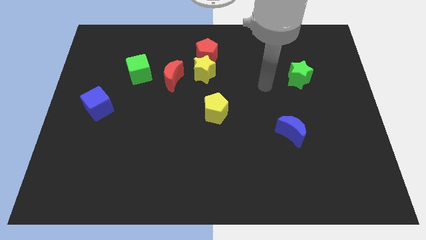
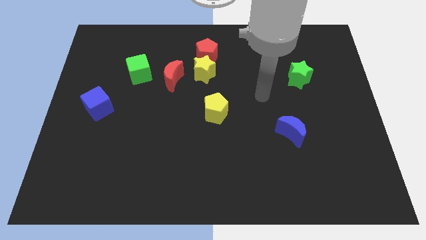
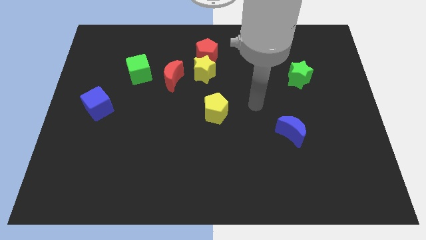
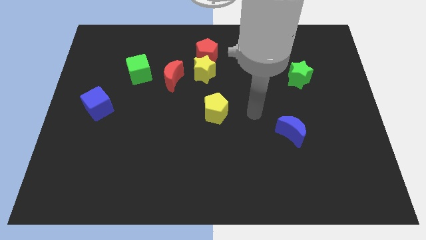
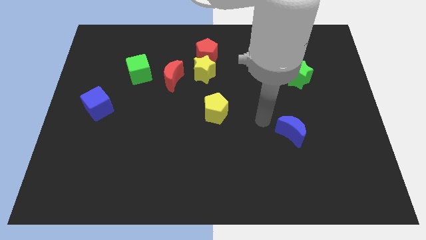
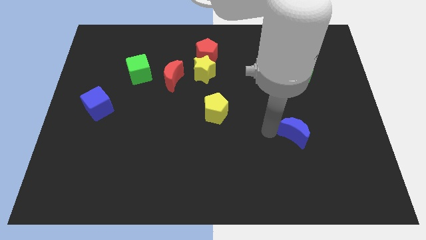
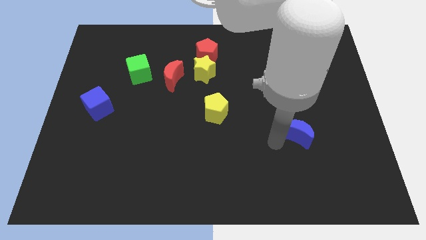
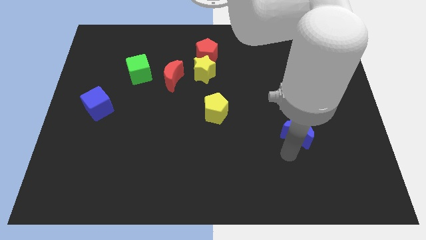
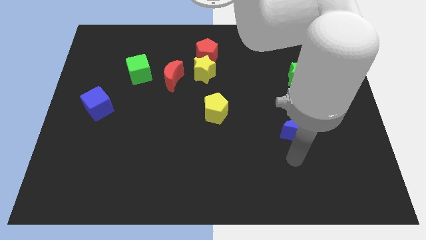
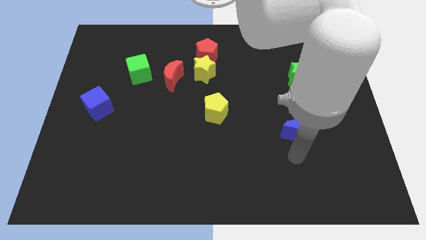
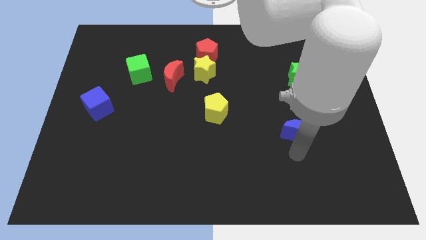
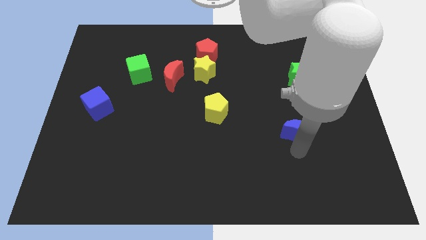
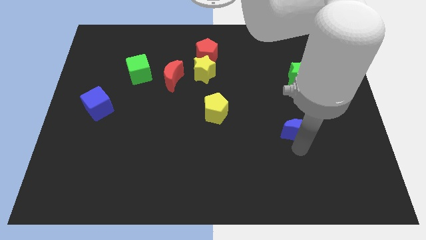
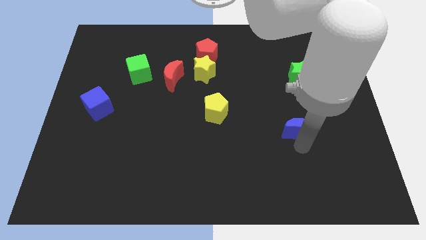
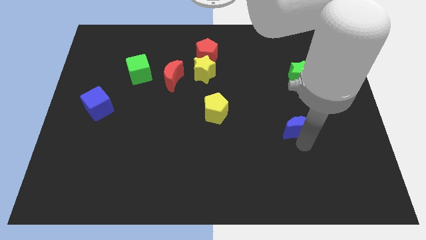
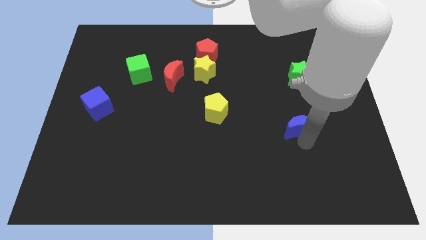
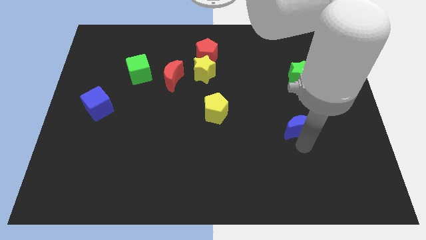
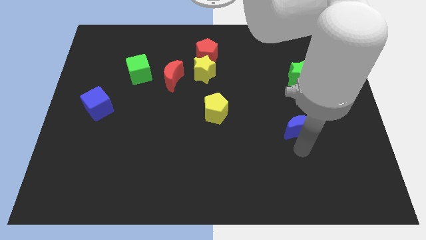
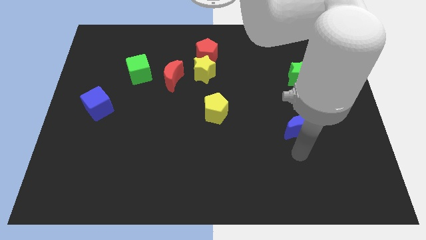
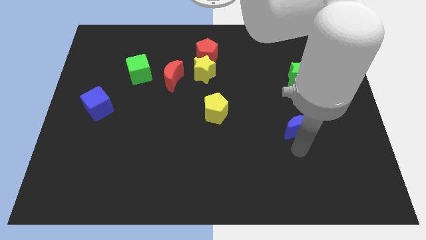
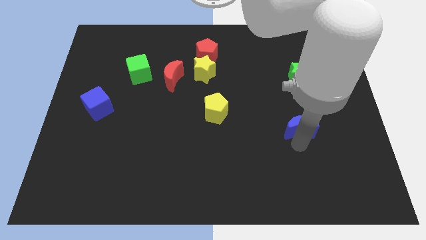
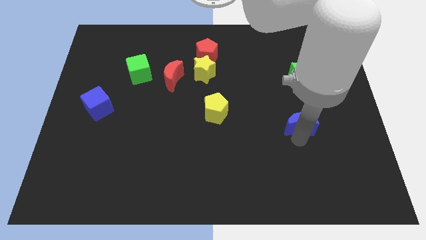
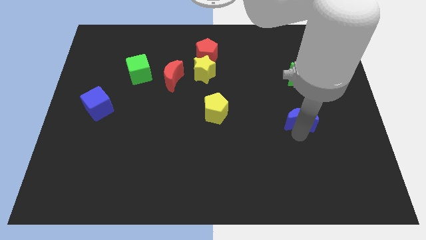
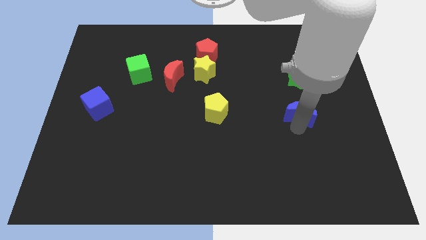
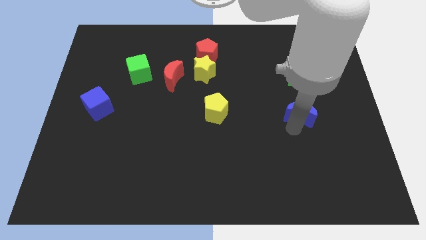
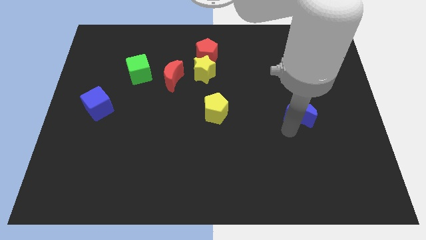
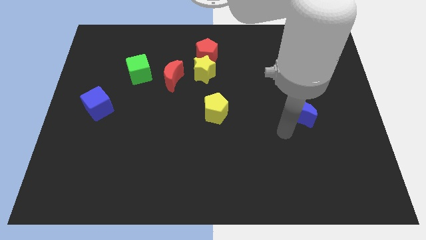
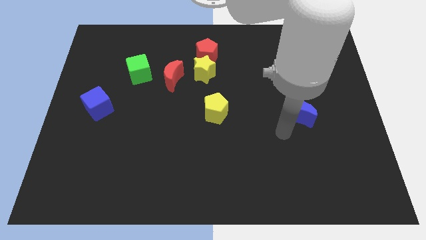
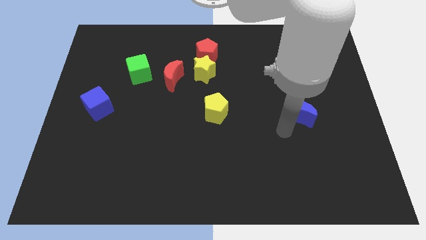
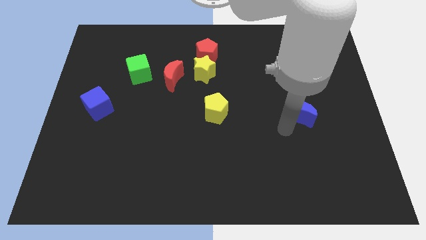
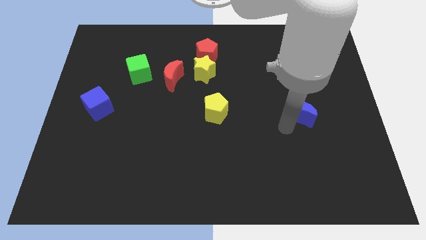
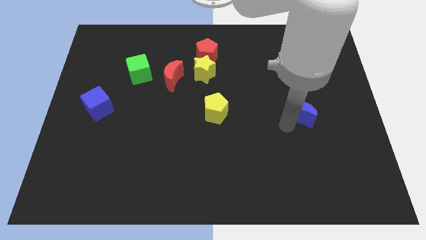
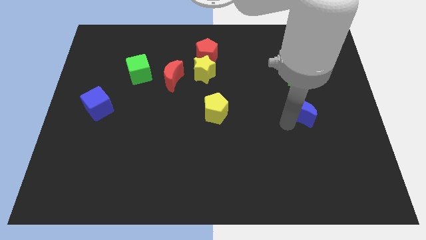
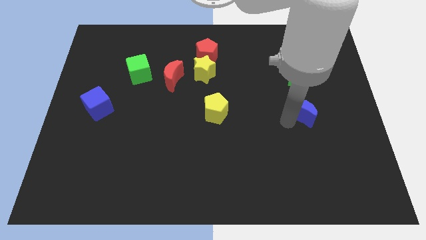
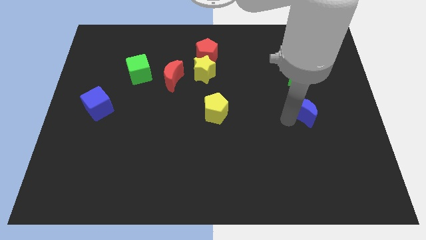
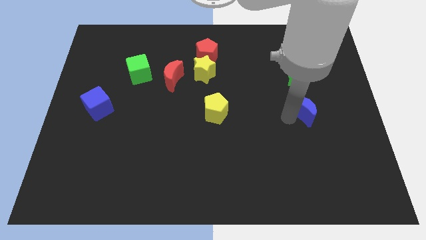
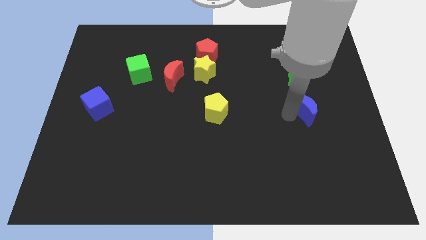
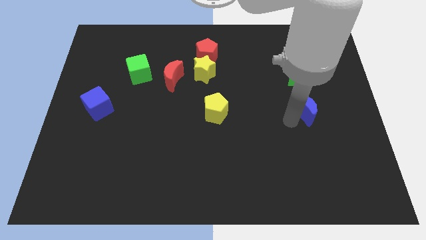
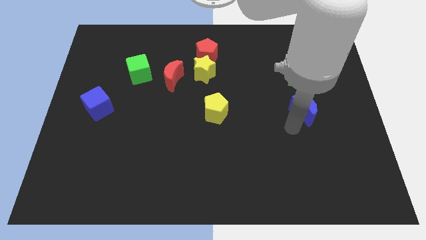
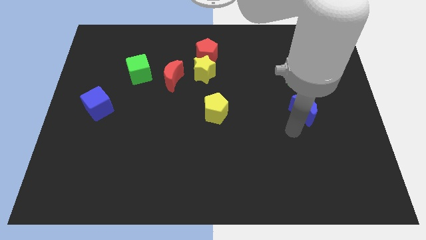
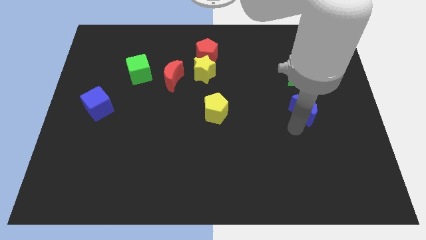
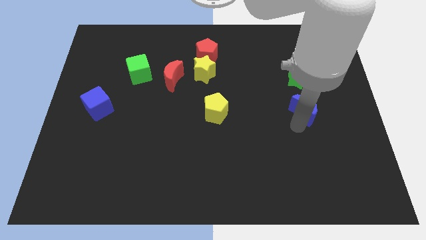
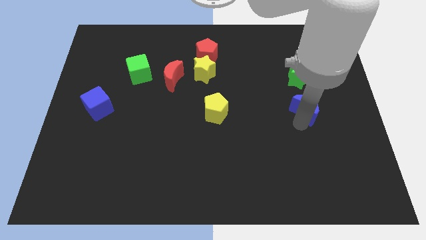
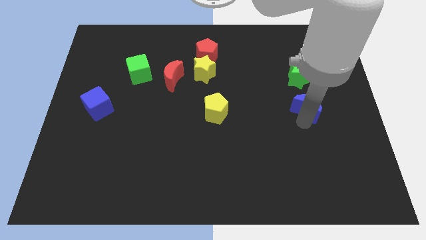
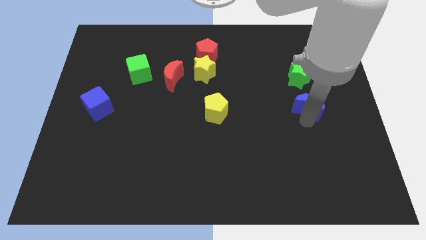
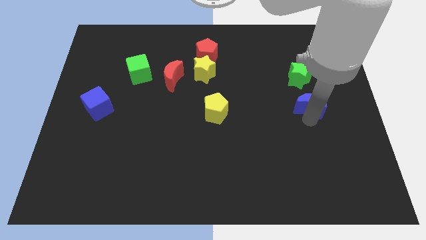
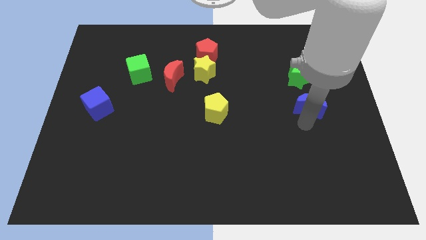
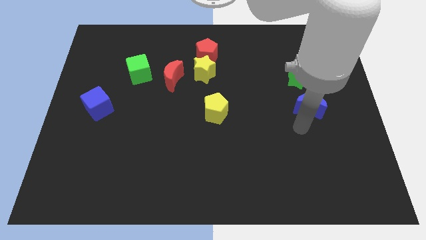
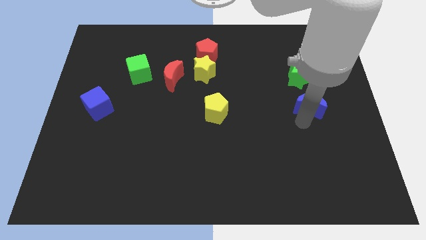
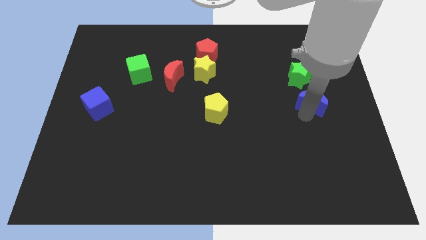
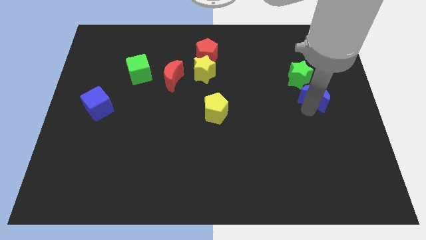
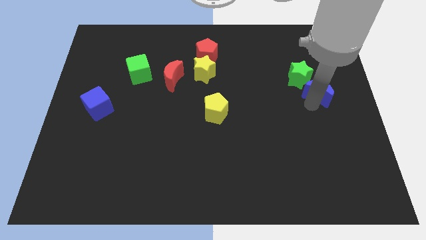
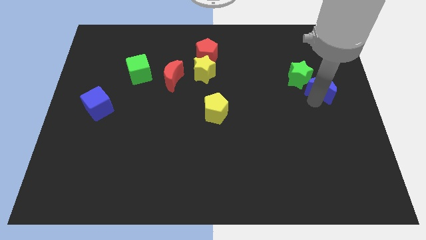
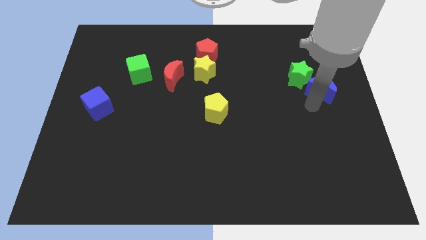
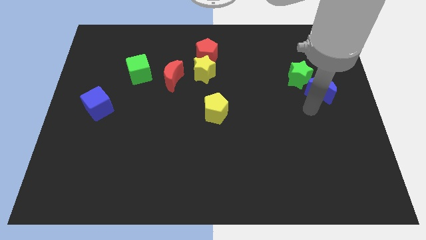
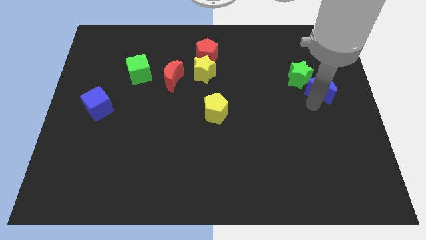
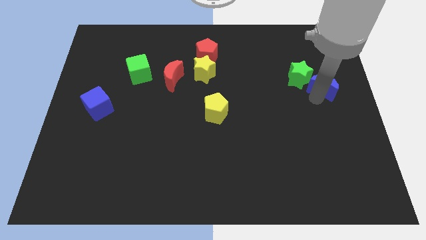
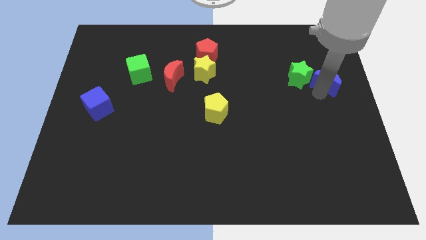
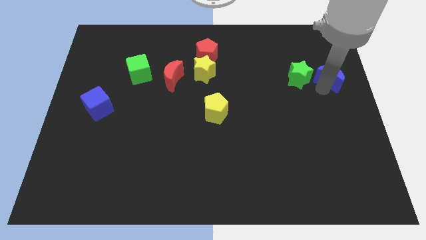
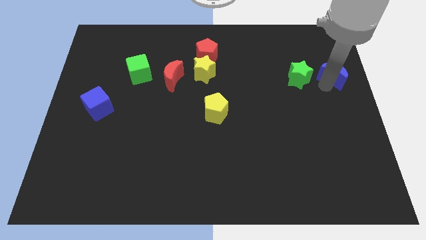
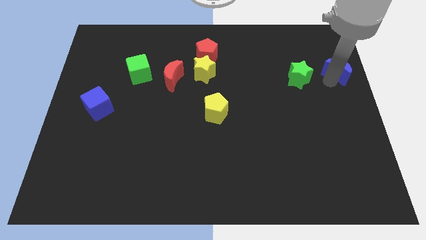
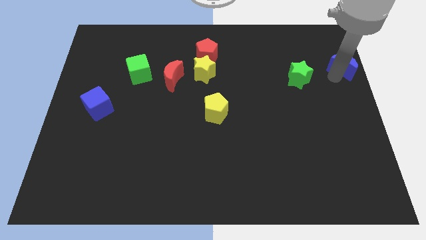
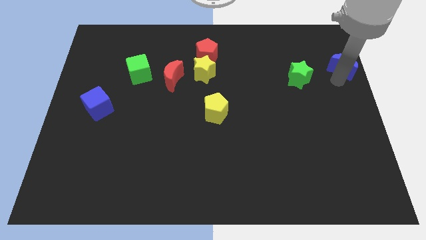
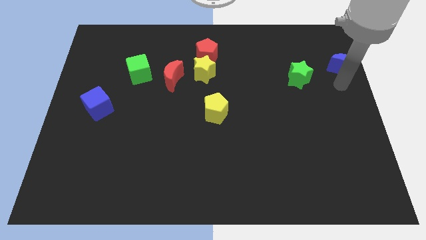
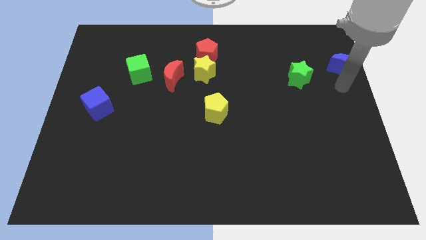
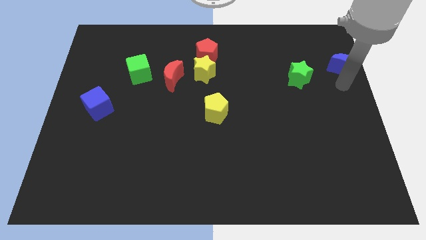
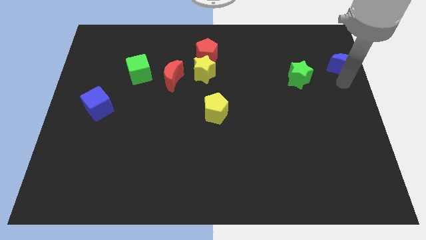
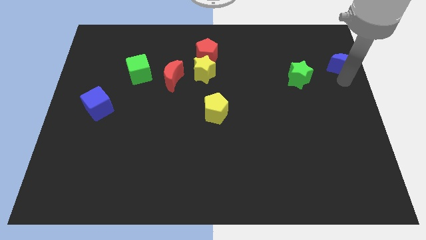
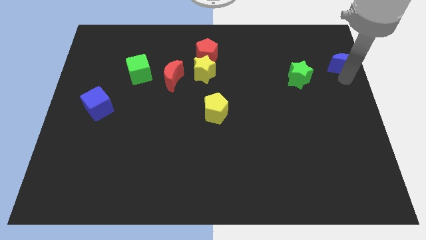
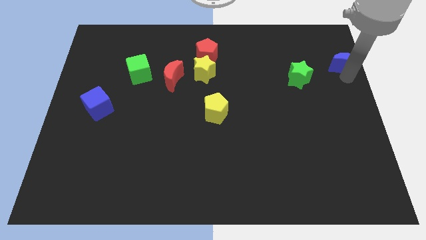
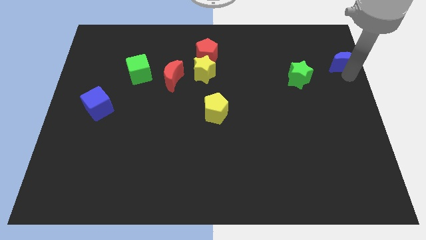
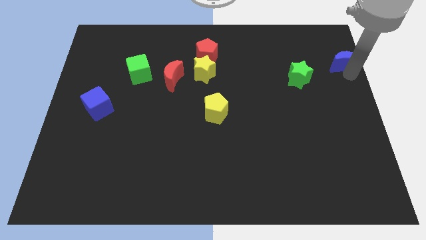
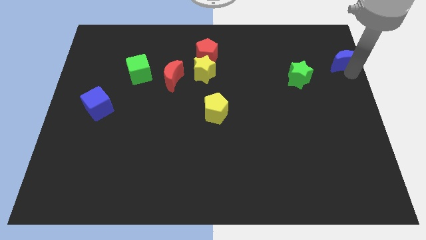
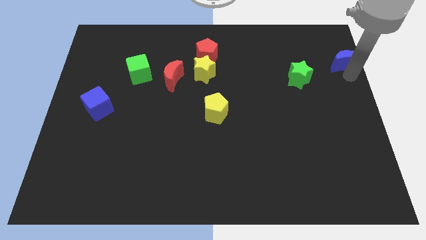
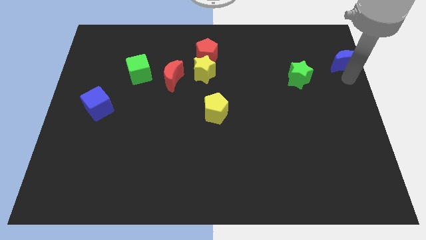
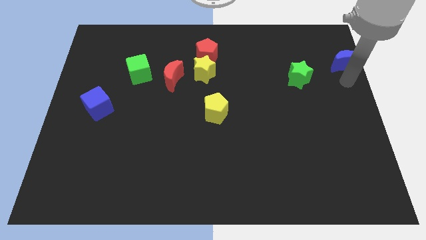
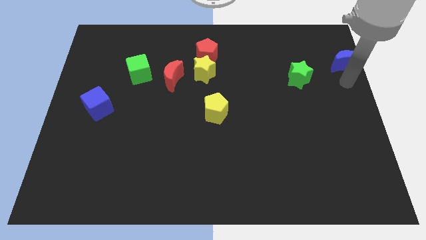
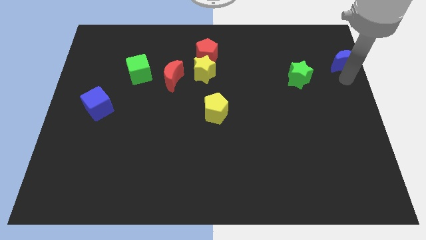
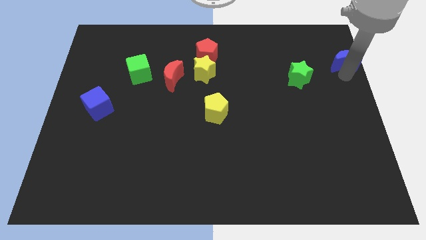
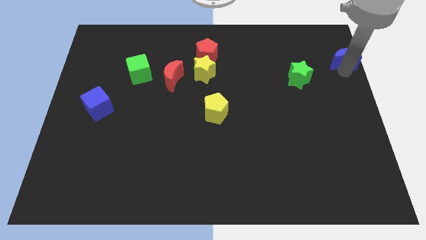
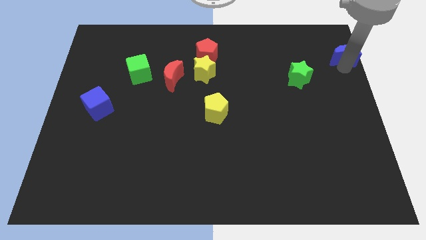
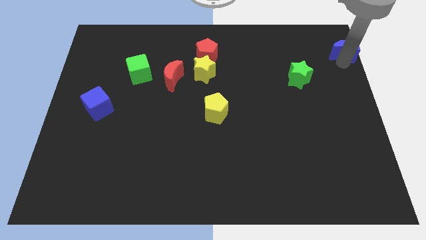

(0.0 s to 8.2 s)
put the blue moon to the upper right corner
